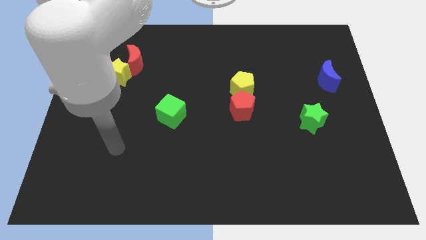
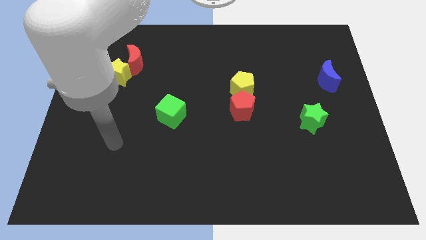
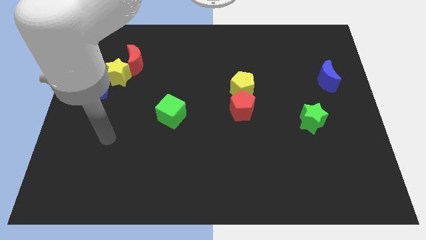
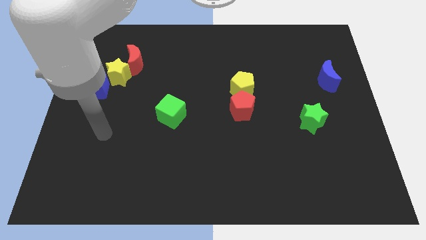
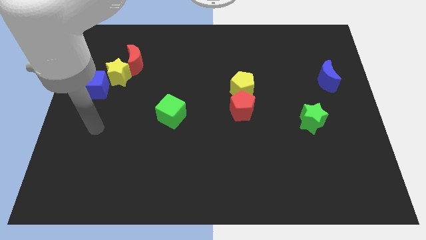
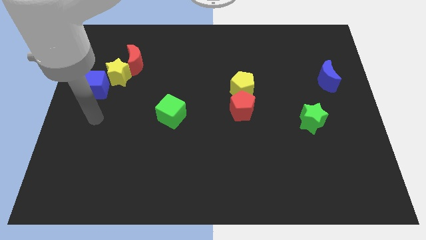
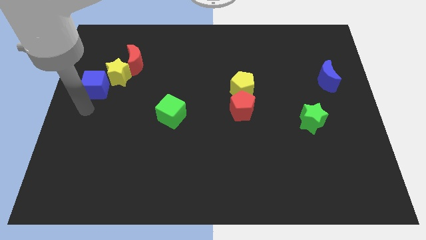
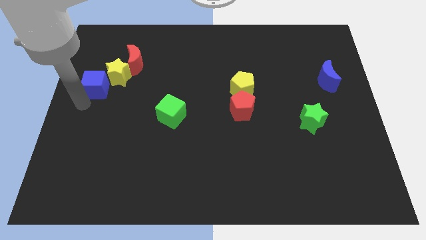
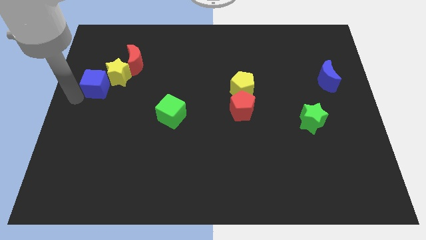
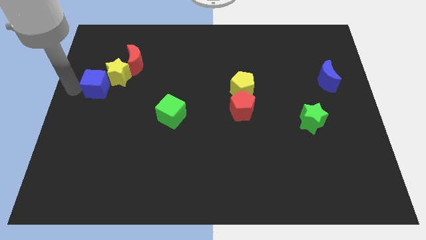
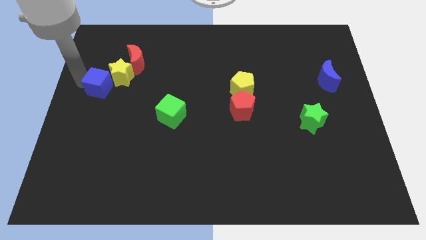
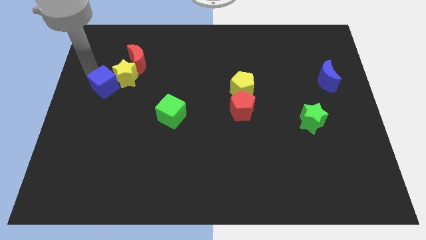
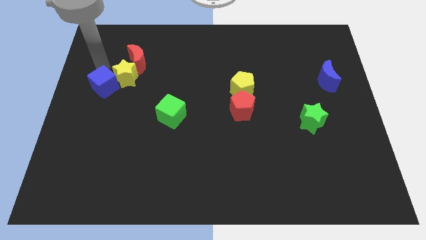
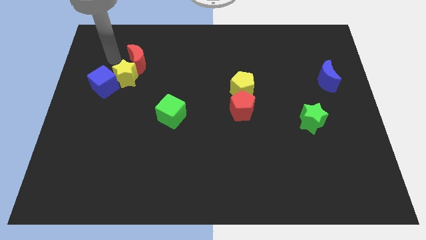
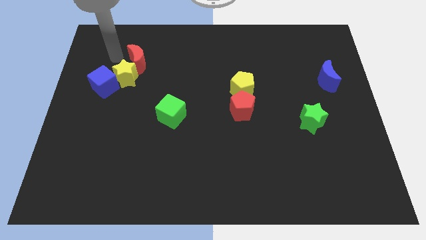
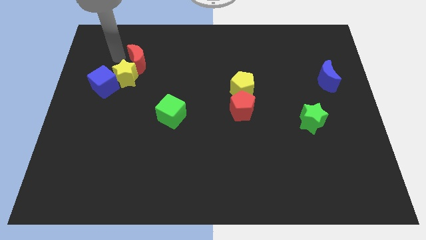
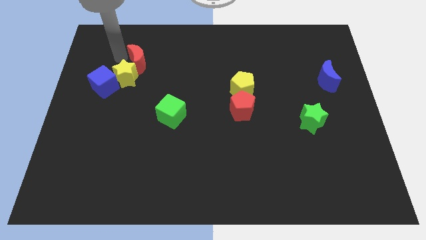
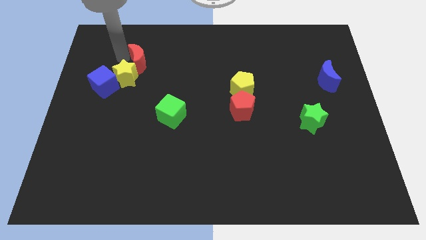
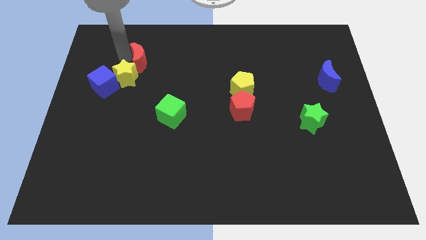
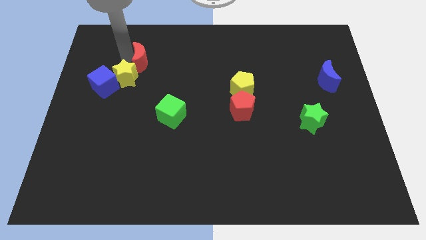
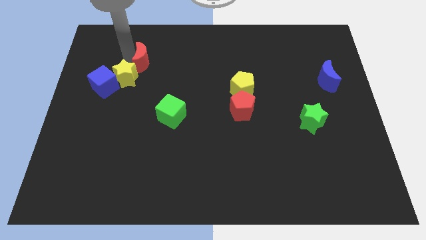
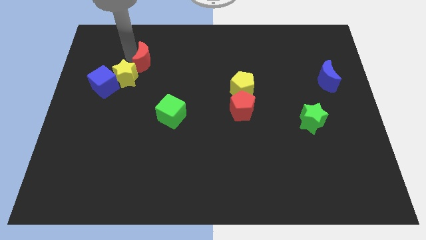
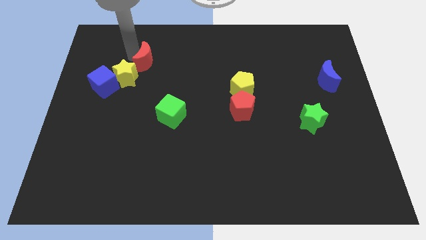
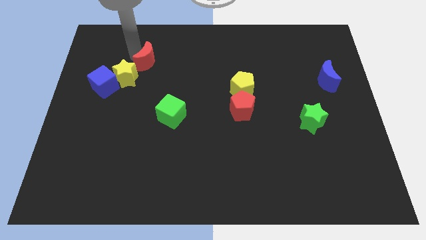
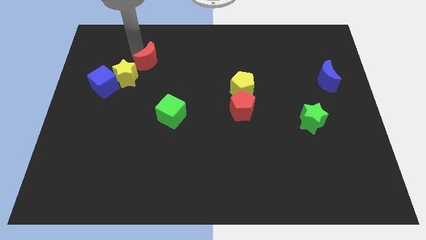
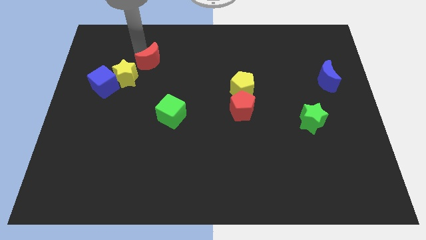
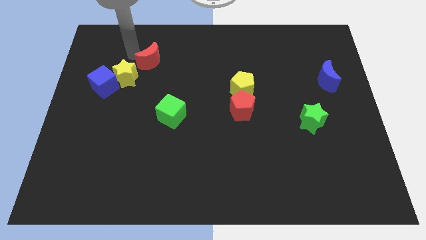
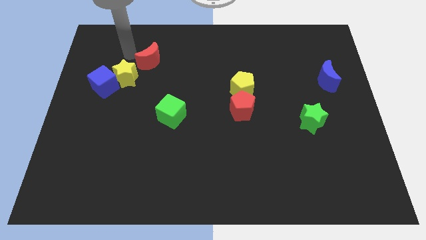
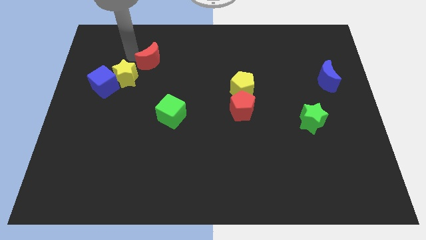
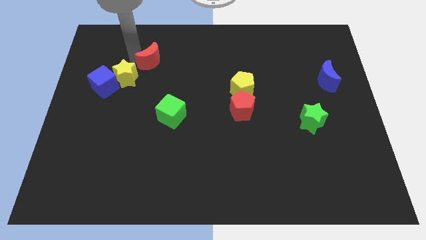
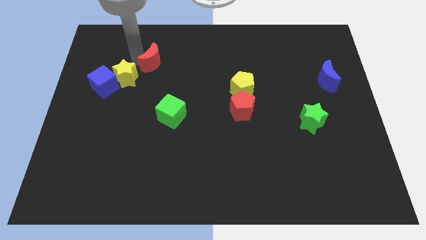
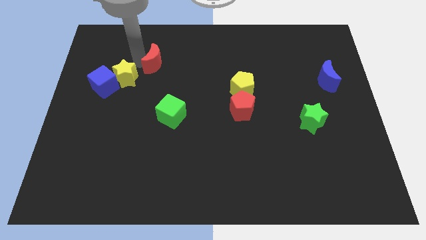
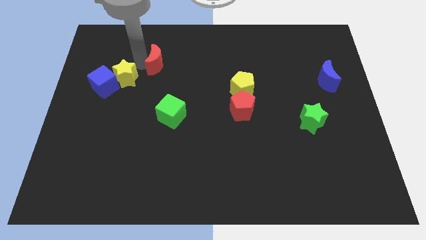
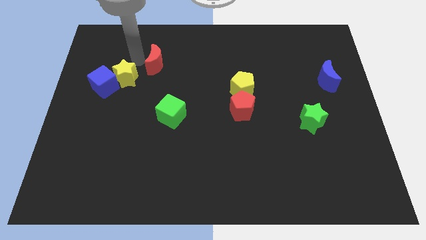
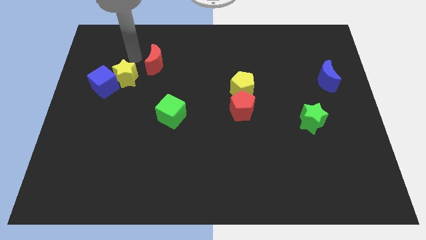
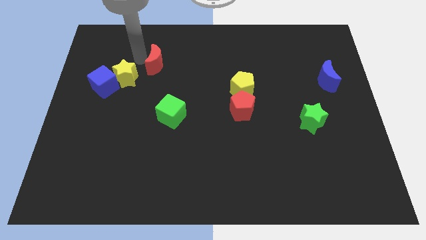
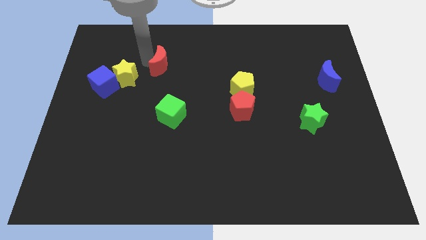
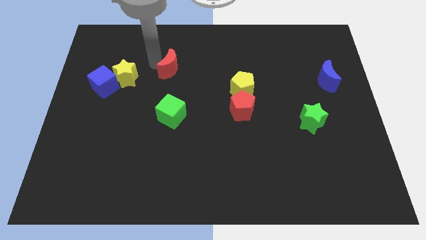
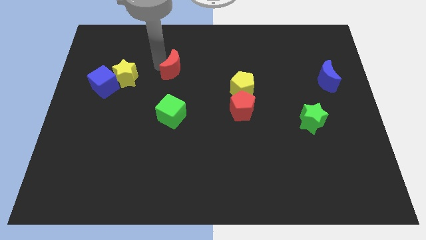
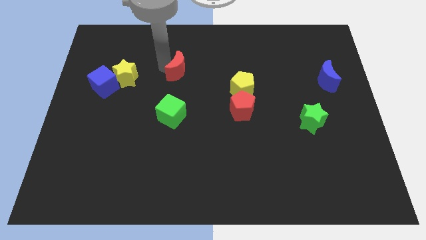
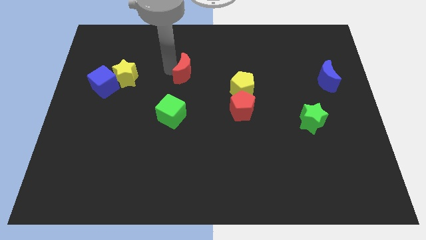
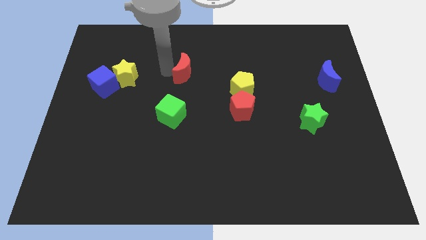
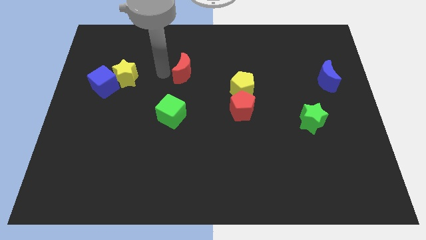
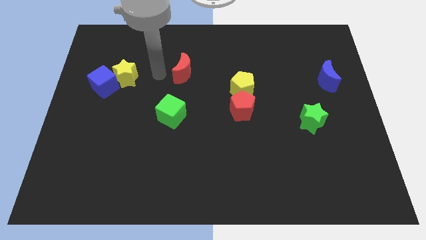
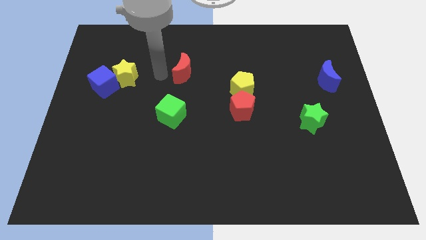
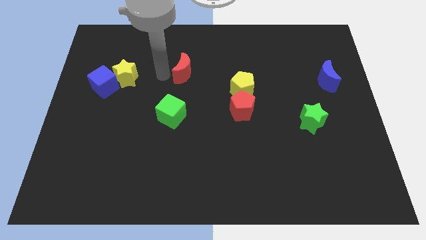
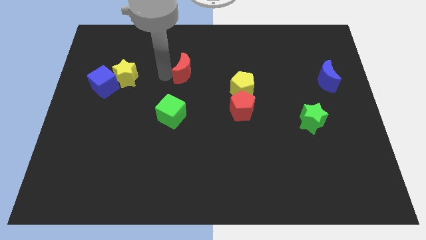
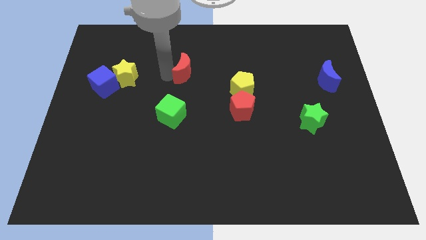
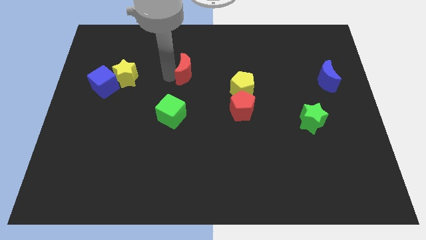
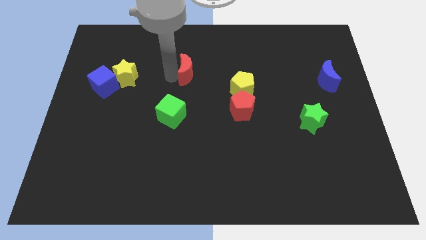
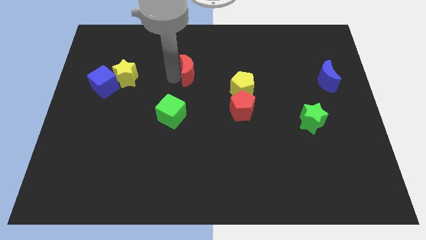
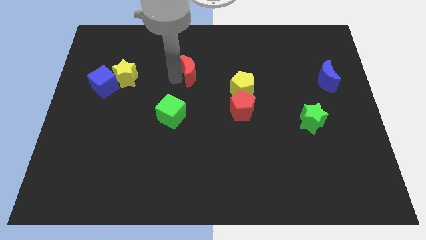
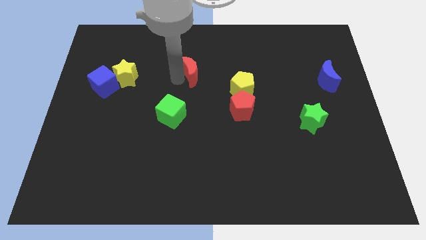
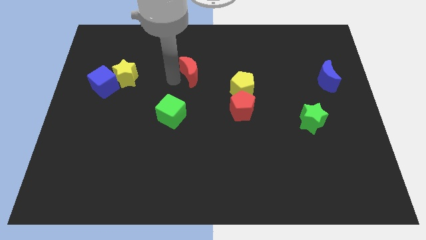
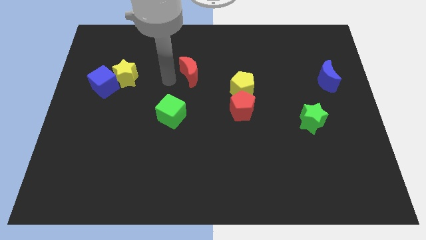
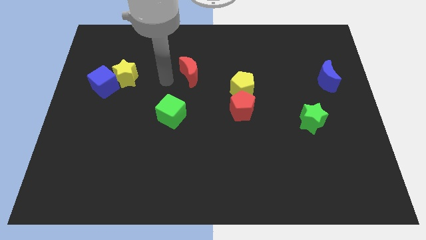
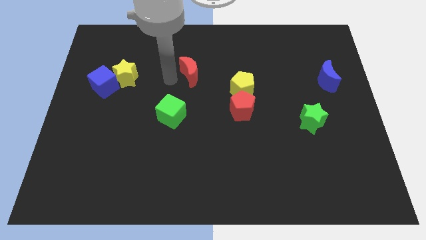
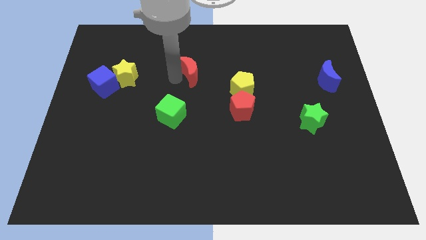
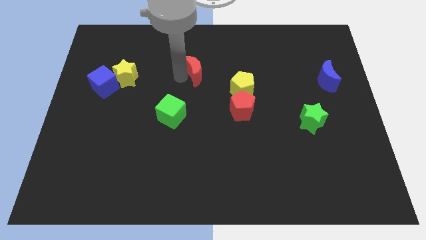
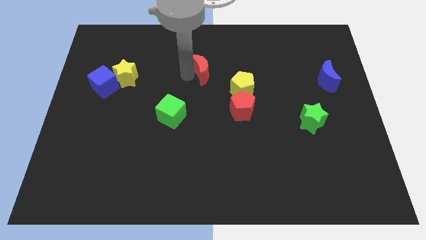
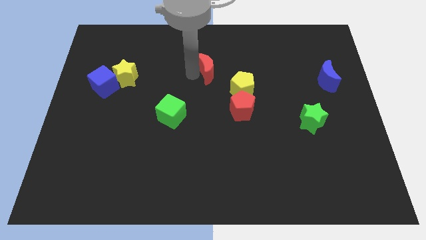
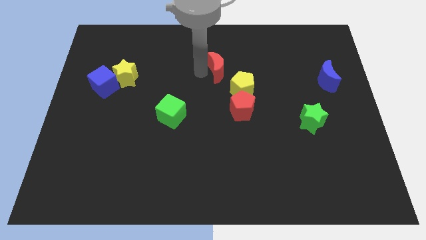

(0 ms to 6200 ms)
slide the red moon to the right

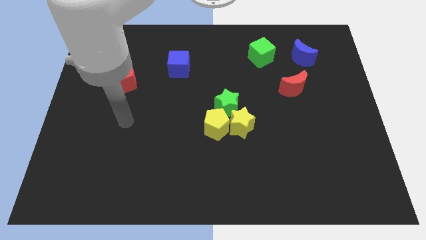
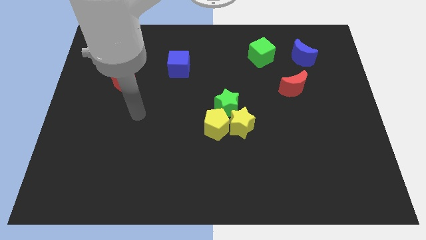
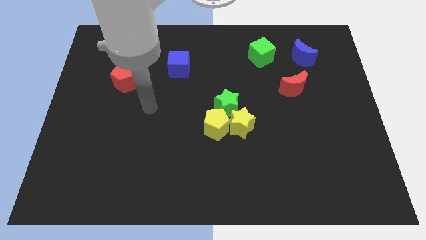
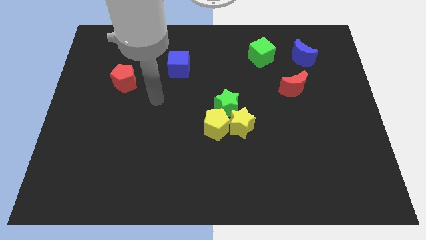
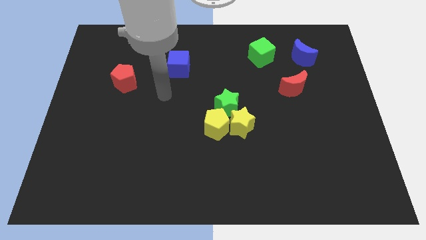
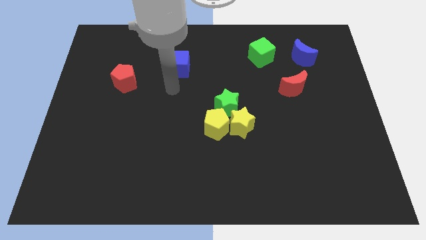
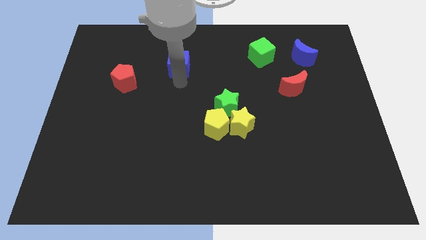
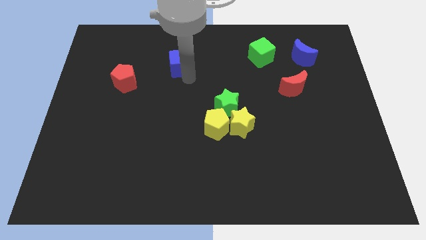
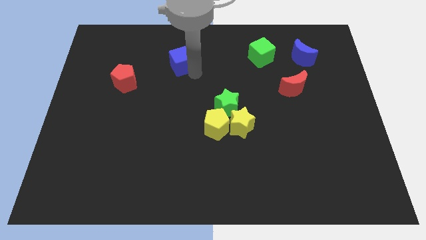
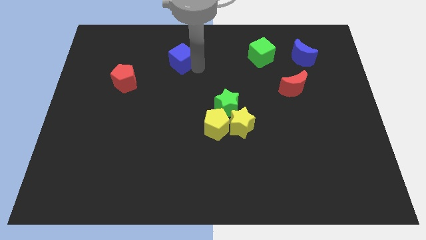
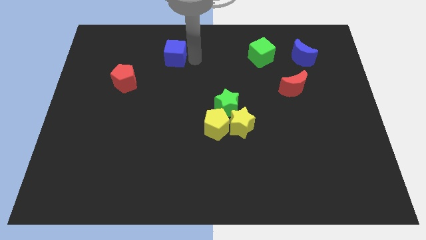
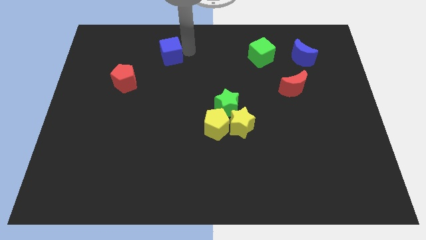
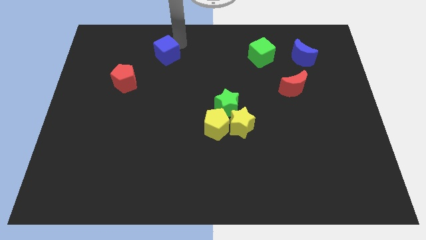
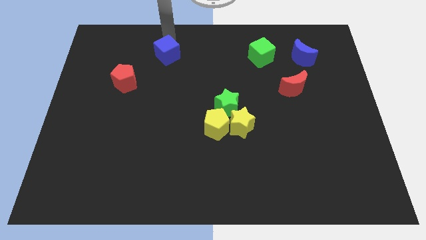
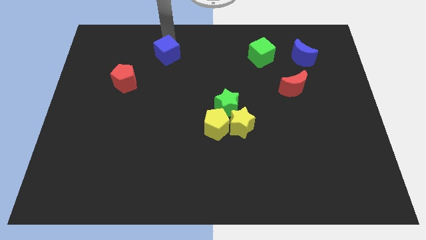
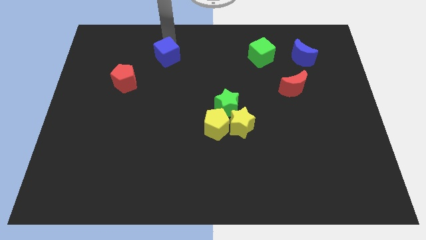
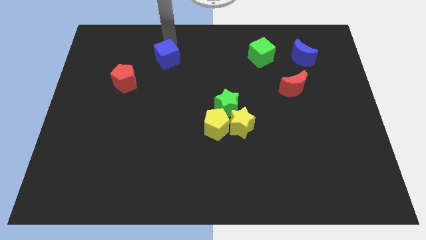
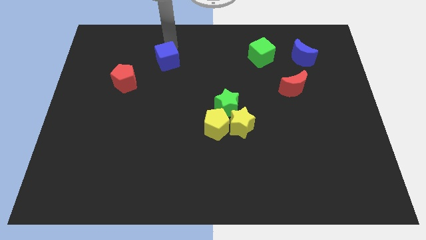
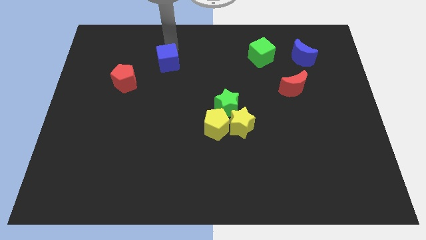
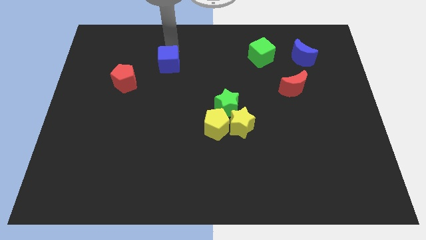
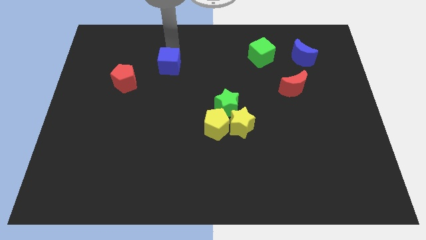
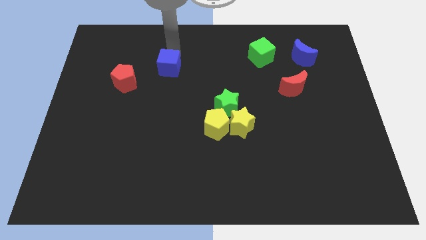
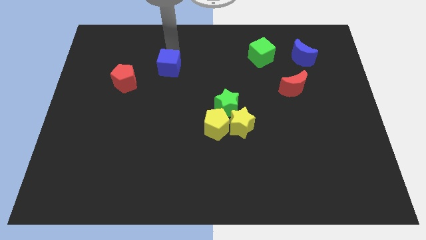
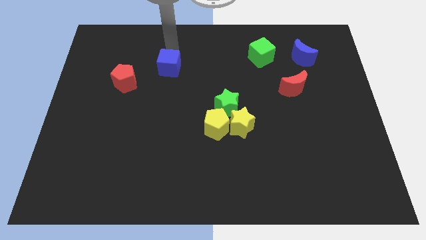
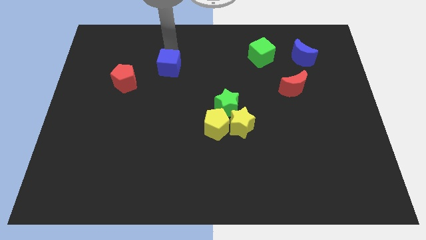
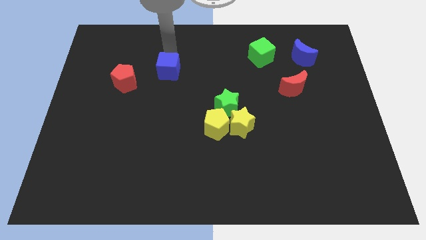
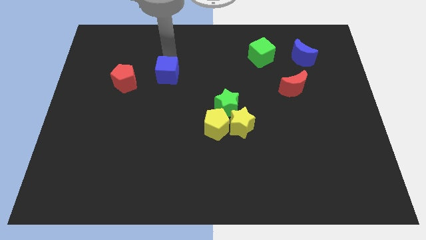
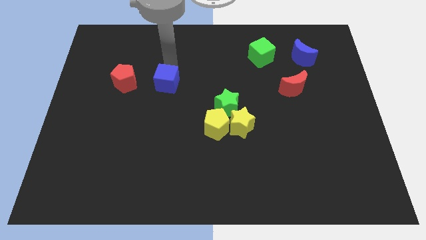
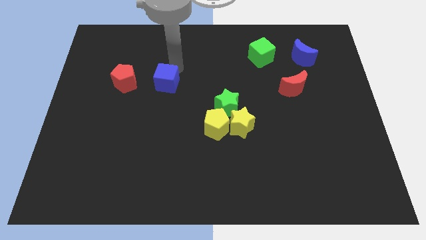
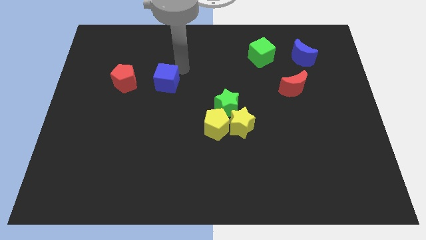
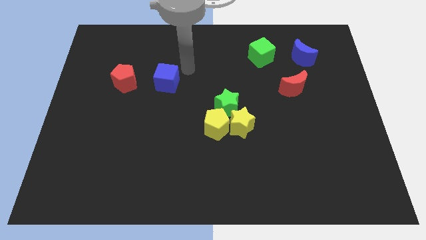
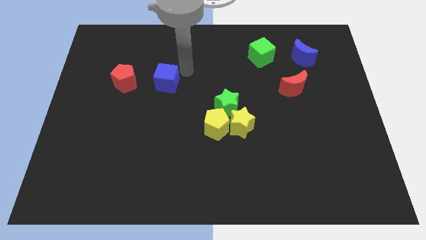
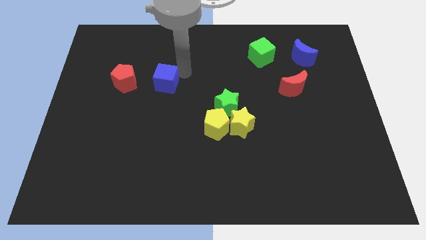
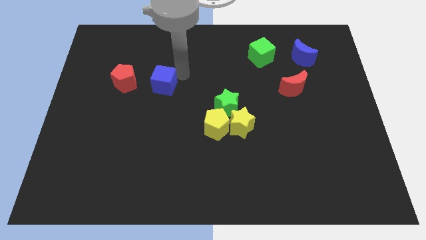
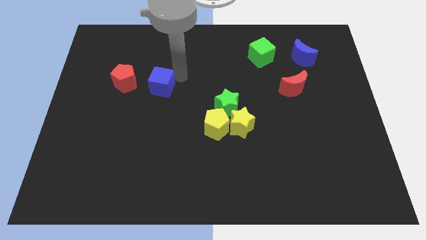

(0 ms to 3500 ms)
slide the blue cube downwards and left a little
